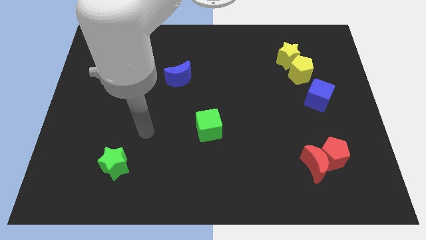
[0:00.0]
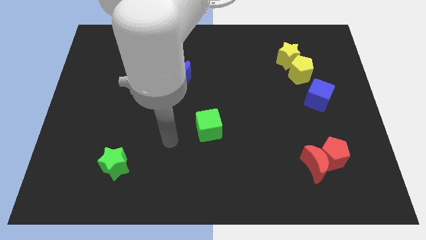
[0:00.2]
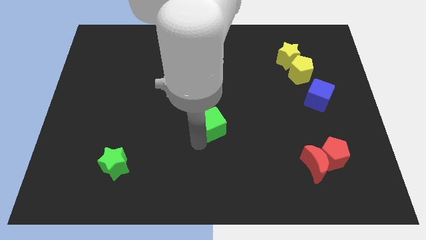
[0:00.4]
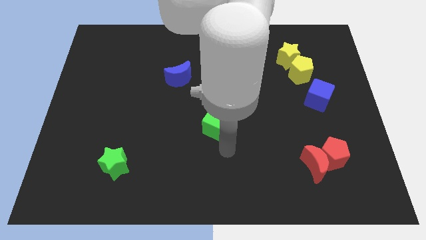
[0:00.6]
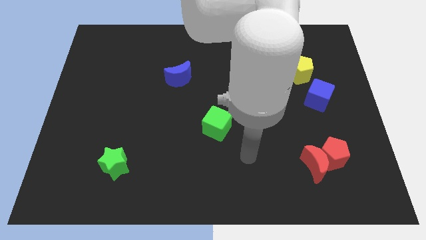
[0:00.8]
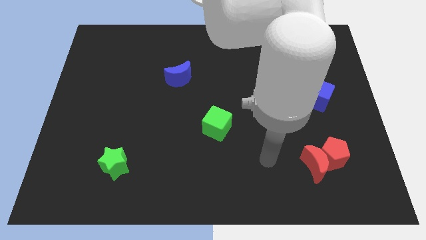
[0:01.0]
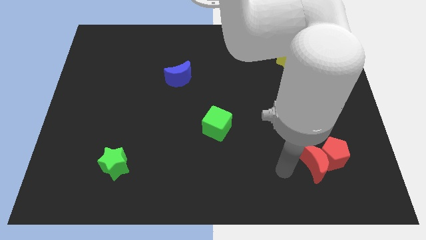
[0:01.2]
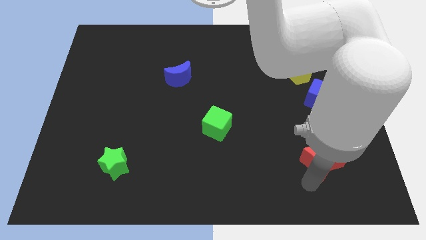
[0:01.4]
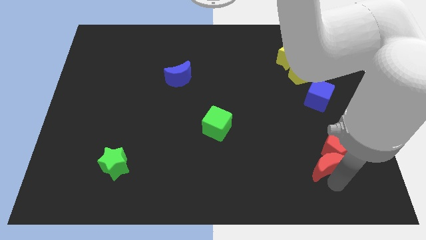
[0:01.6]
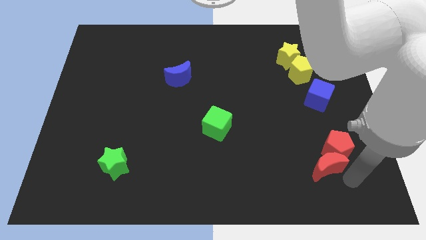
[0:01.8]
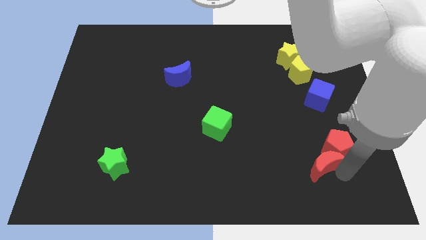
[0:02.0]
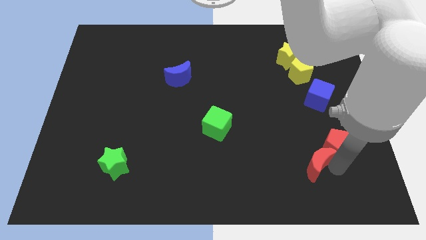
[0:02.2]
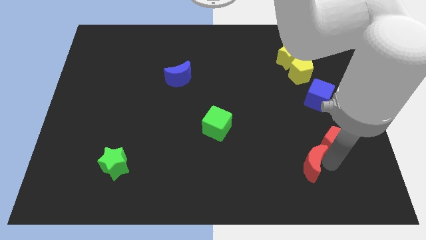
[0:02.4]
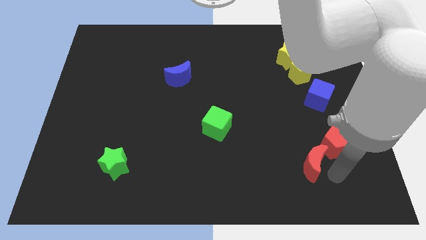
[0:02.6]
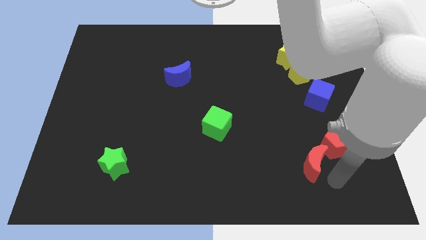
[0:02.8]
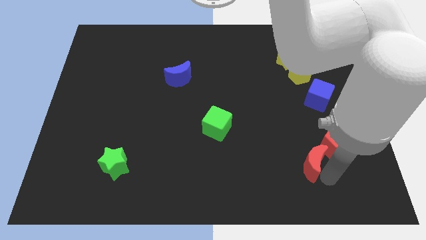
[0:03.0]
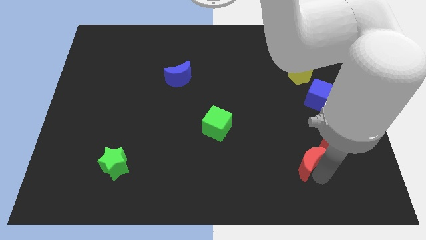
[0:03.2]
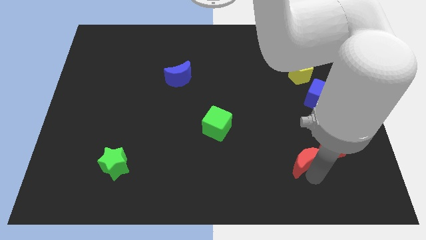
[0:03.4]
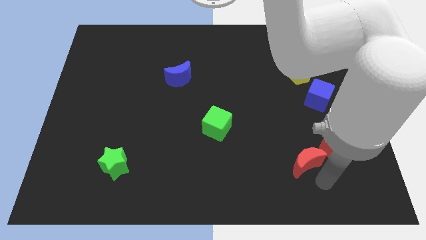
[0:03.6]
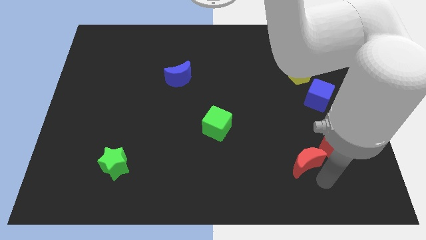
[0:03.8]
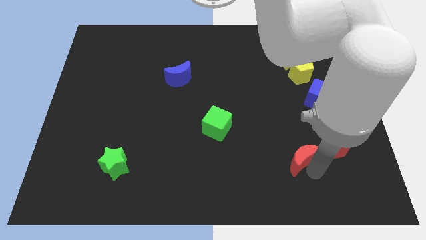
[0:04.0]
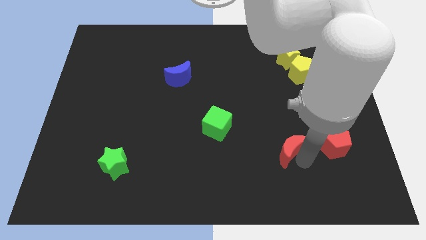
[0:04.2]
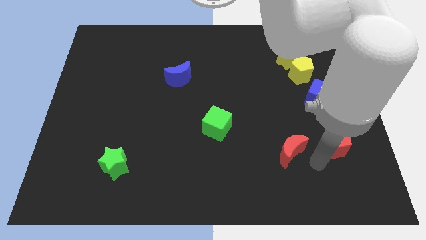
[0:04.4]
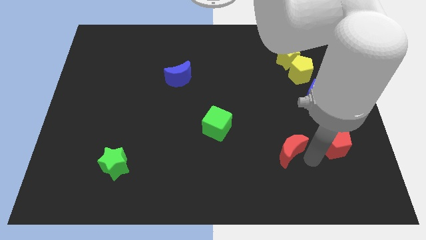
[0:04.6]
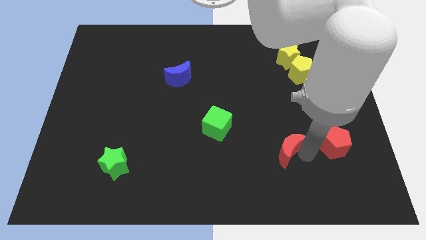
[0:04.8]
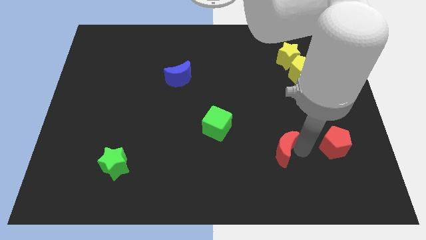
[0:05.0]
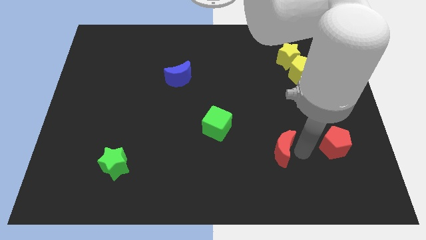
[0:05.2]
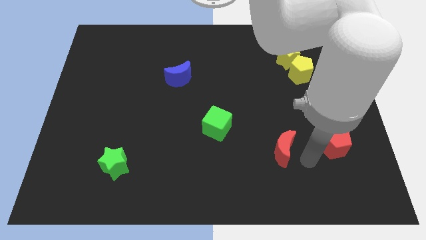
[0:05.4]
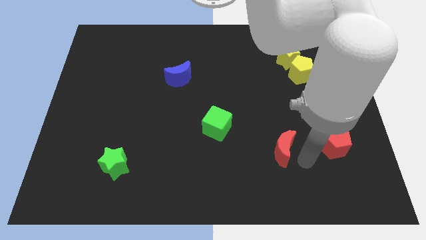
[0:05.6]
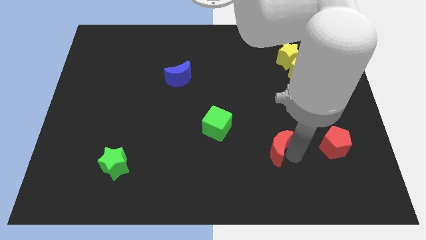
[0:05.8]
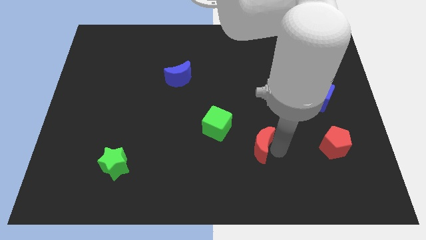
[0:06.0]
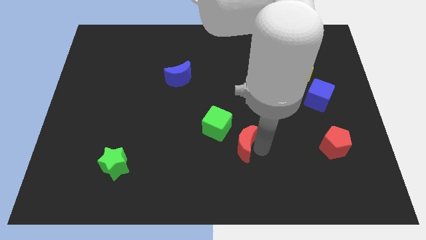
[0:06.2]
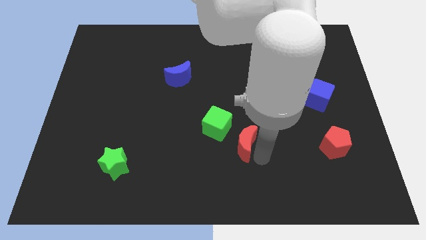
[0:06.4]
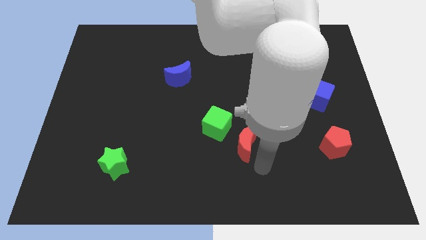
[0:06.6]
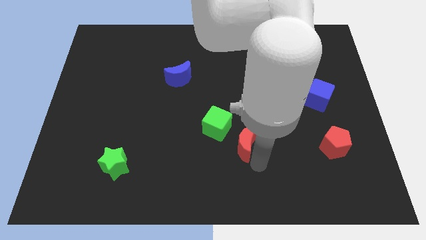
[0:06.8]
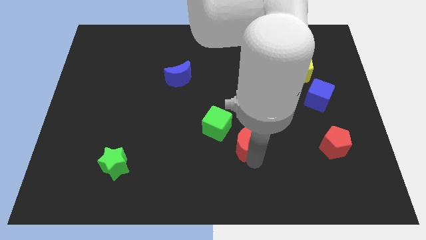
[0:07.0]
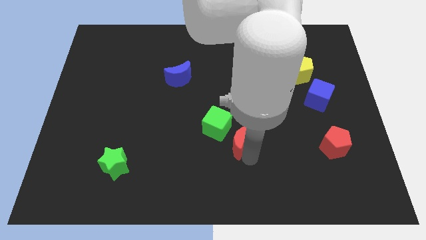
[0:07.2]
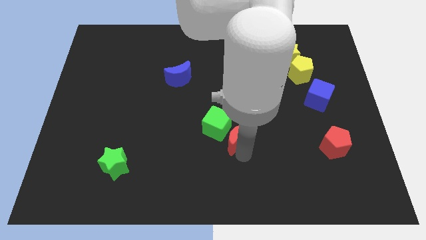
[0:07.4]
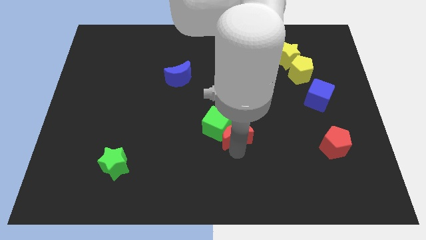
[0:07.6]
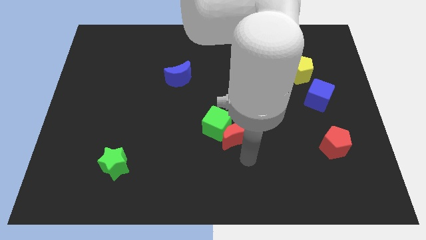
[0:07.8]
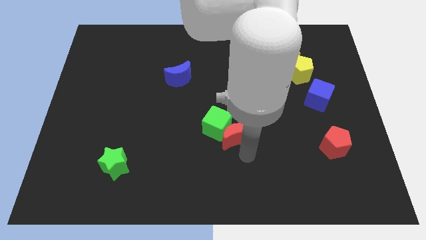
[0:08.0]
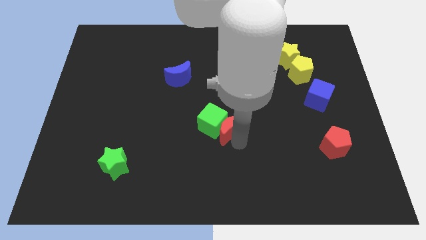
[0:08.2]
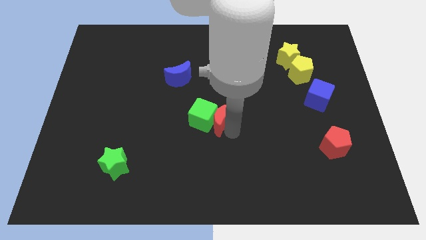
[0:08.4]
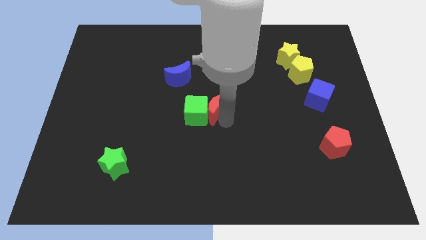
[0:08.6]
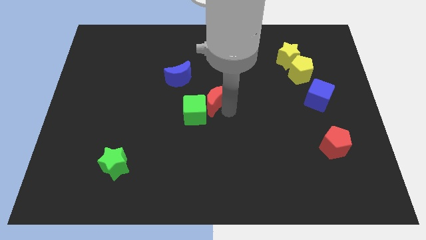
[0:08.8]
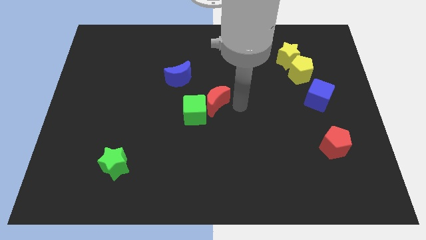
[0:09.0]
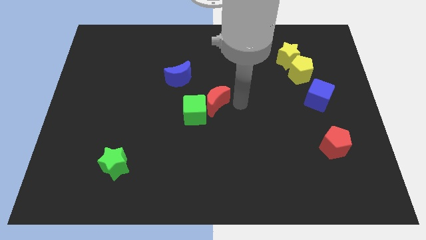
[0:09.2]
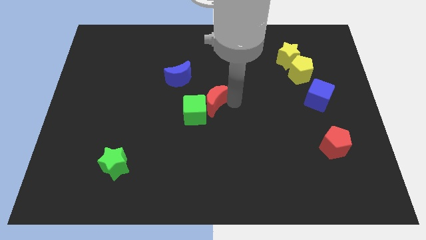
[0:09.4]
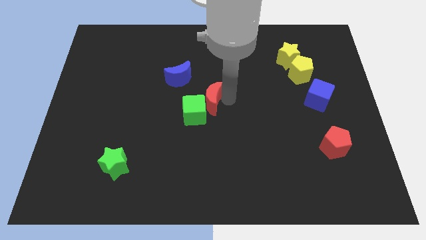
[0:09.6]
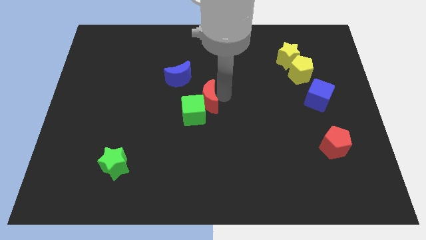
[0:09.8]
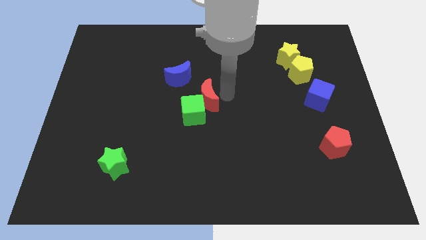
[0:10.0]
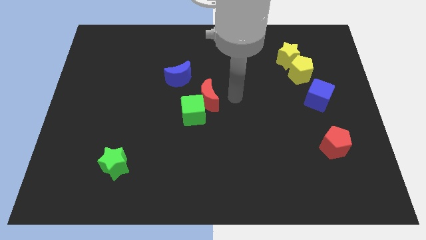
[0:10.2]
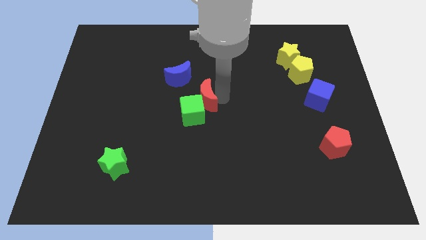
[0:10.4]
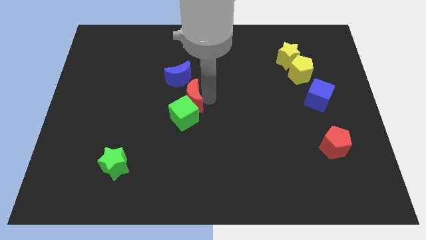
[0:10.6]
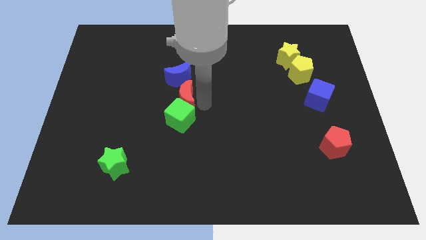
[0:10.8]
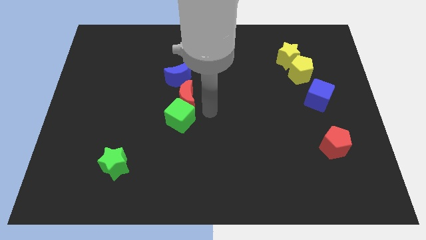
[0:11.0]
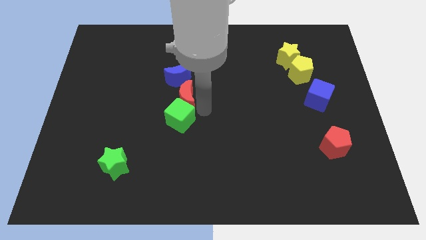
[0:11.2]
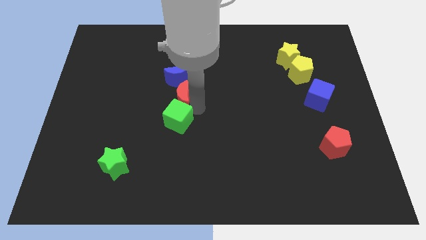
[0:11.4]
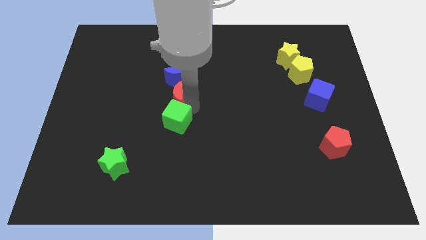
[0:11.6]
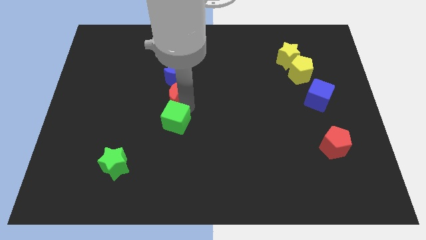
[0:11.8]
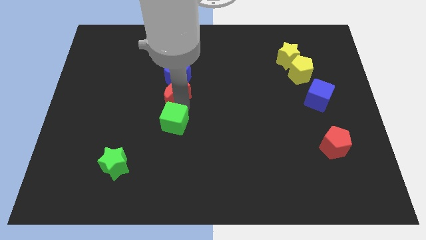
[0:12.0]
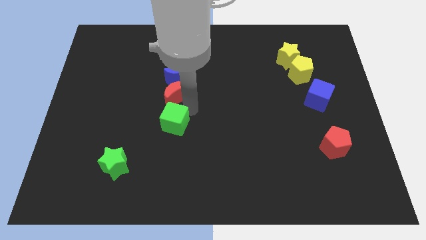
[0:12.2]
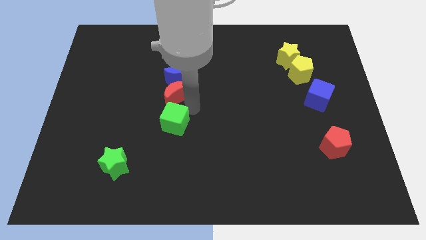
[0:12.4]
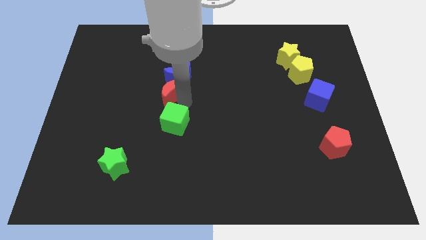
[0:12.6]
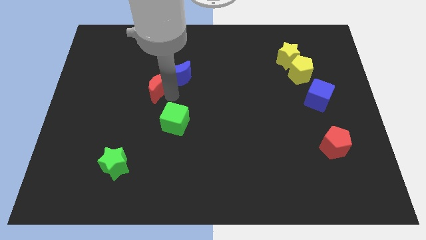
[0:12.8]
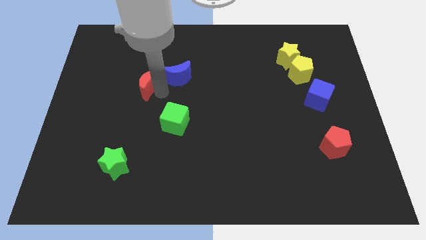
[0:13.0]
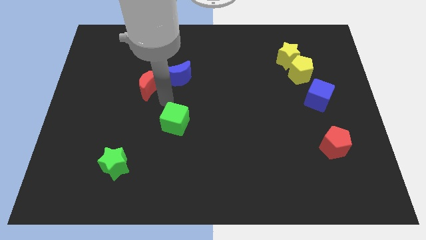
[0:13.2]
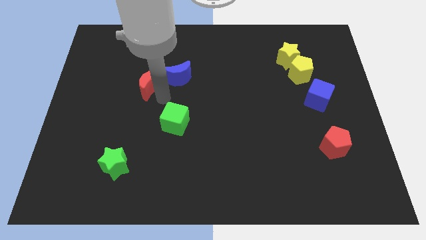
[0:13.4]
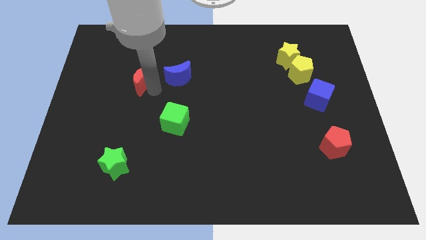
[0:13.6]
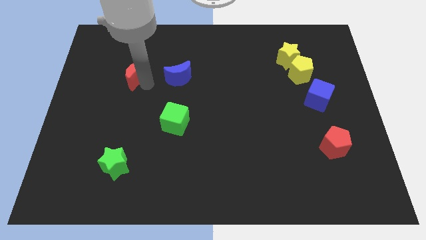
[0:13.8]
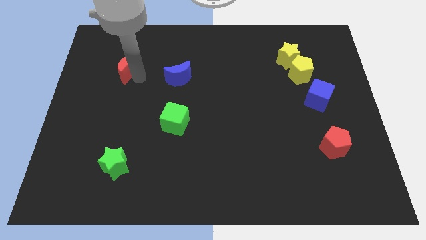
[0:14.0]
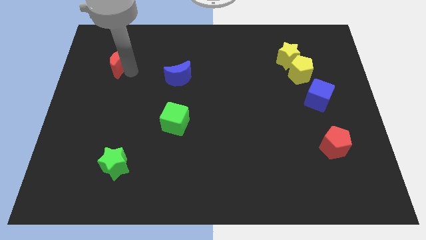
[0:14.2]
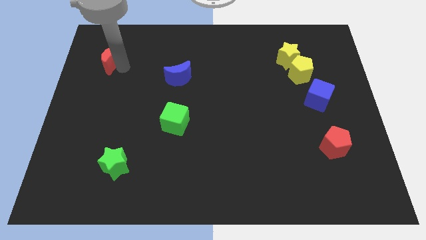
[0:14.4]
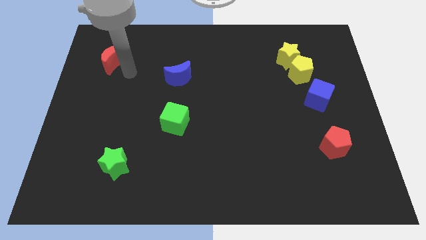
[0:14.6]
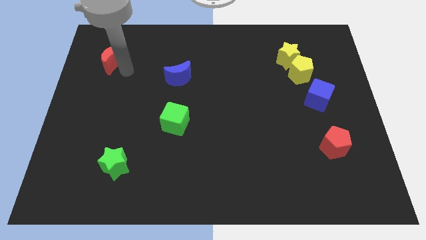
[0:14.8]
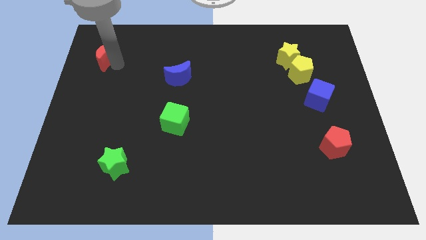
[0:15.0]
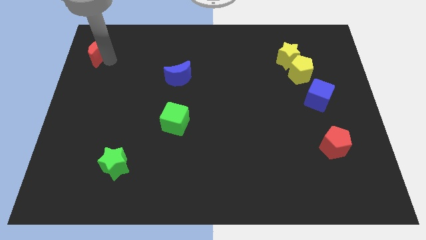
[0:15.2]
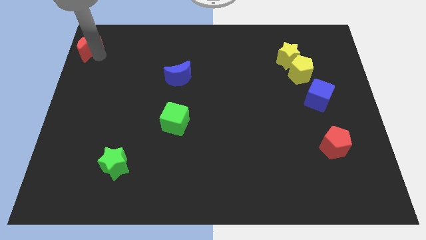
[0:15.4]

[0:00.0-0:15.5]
put the red moon to the top left corner
